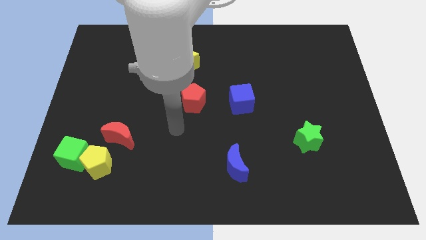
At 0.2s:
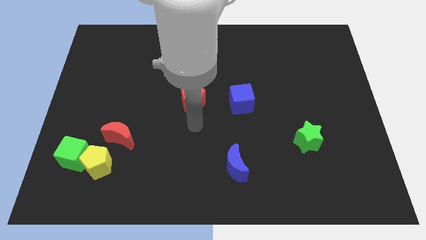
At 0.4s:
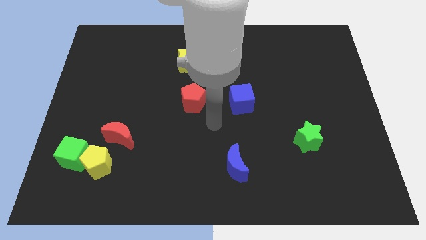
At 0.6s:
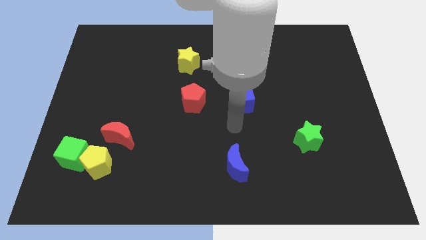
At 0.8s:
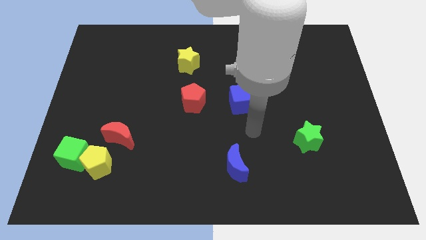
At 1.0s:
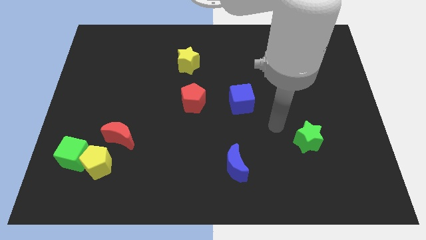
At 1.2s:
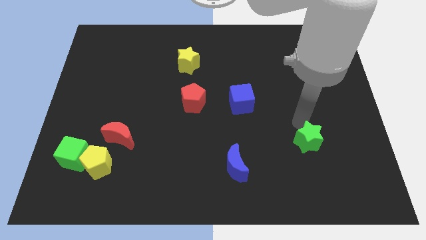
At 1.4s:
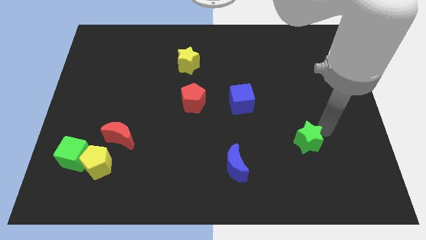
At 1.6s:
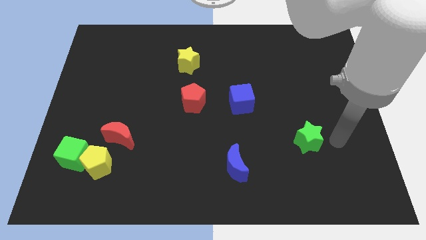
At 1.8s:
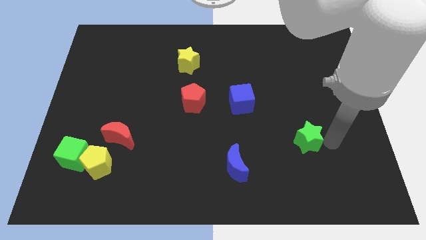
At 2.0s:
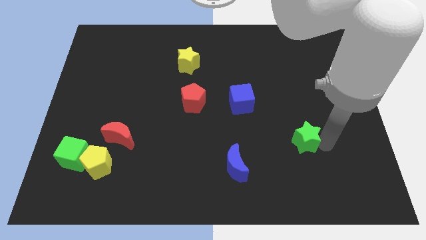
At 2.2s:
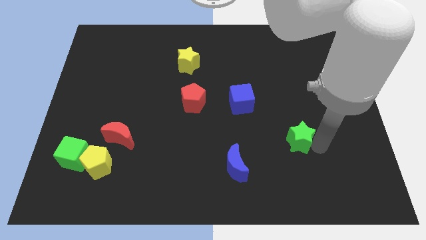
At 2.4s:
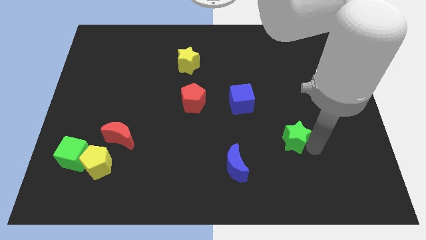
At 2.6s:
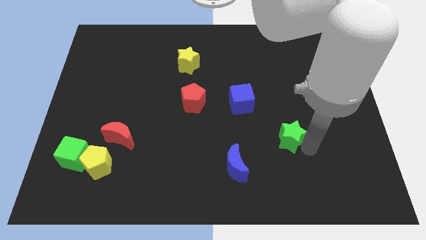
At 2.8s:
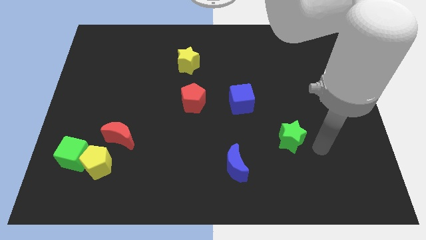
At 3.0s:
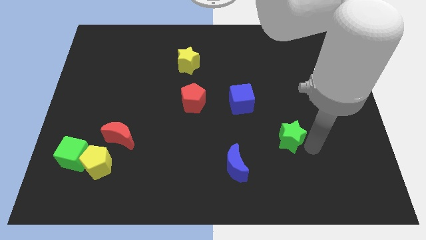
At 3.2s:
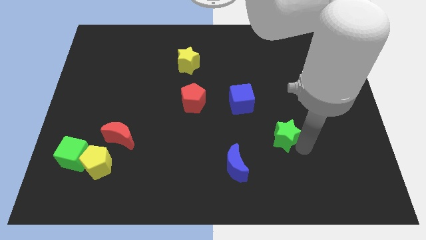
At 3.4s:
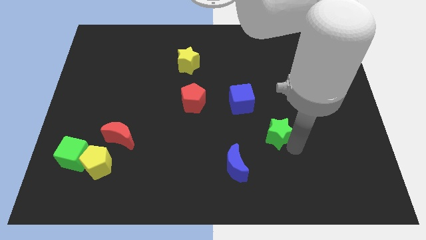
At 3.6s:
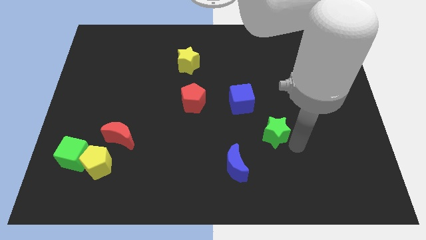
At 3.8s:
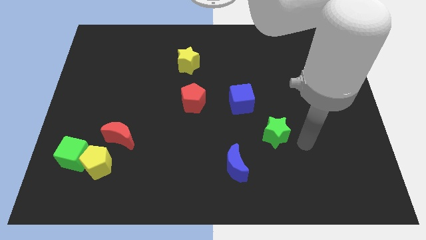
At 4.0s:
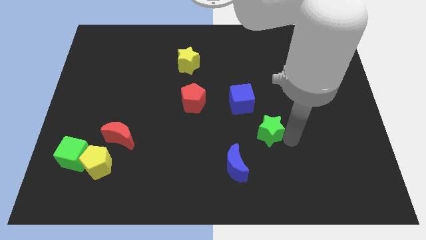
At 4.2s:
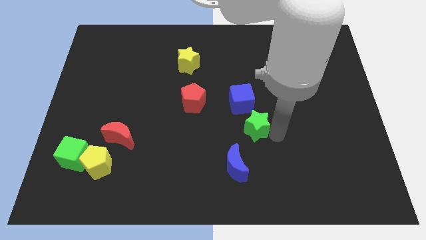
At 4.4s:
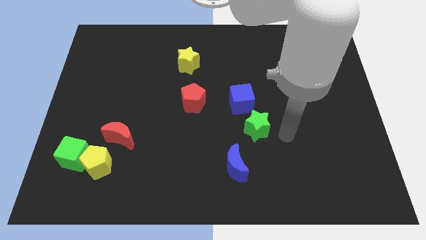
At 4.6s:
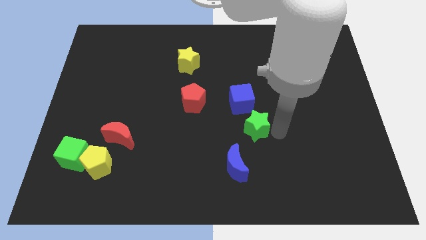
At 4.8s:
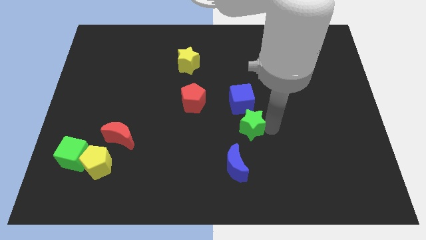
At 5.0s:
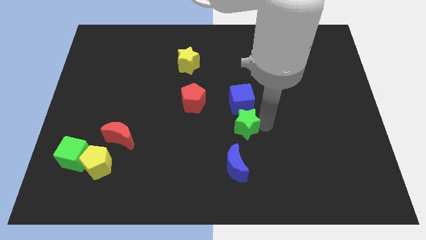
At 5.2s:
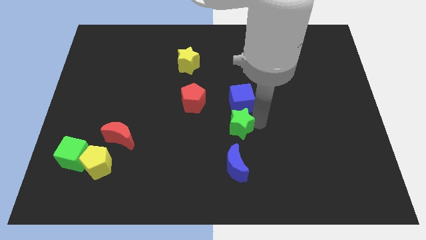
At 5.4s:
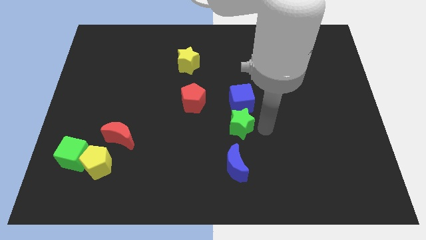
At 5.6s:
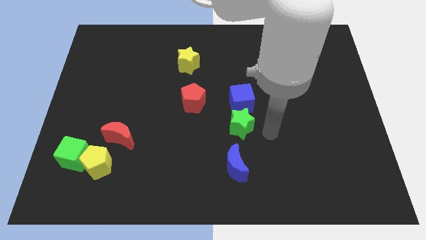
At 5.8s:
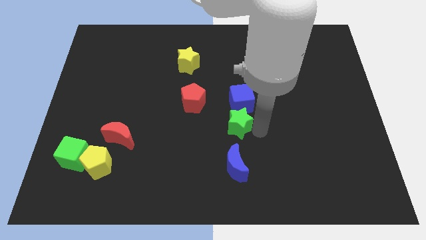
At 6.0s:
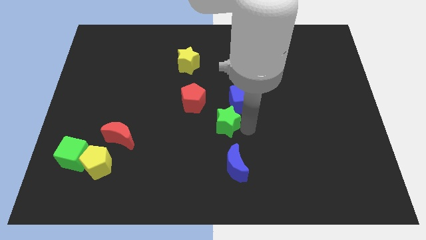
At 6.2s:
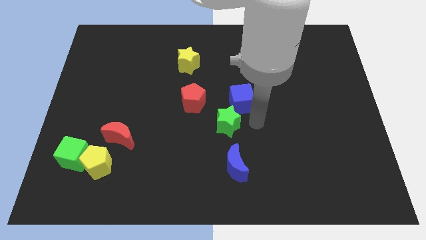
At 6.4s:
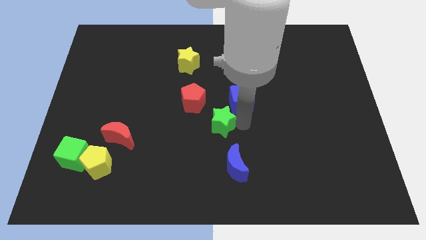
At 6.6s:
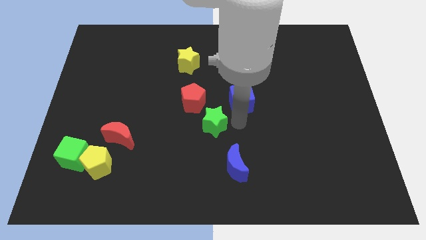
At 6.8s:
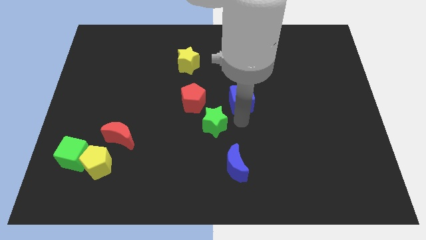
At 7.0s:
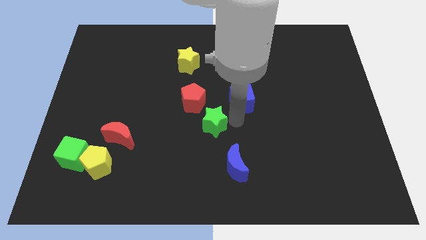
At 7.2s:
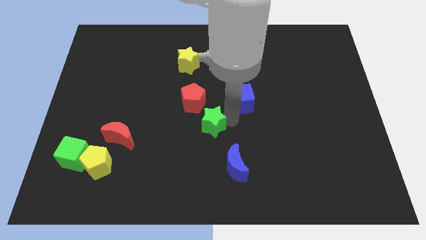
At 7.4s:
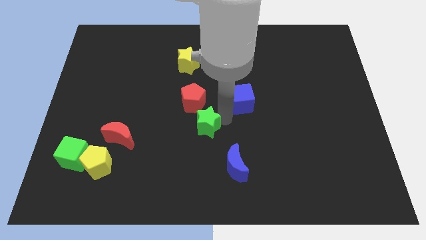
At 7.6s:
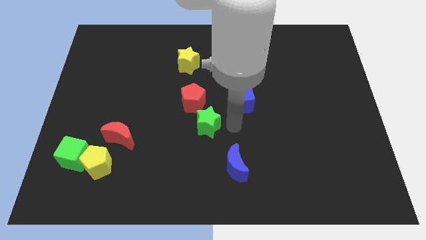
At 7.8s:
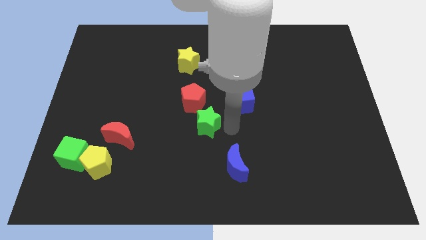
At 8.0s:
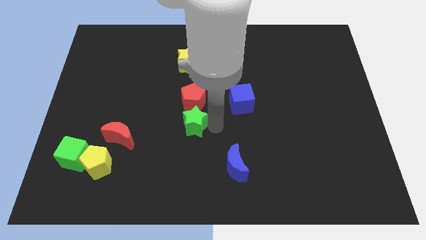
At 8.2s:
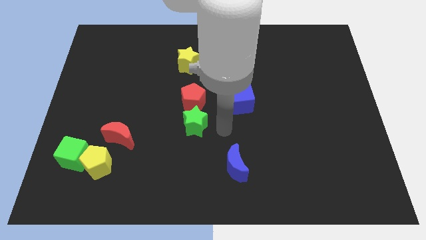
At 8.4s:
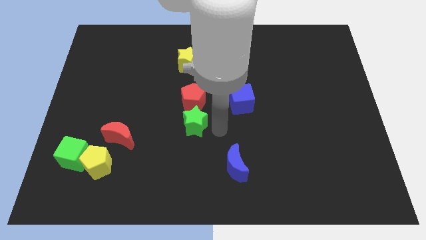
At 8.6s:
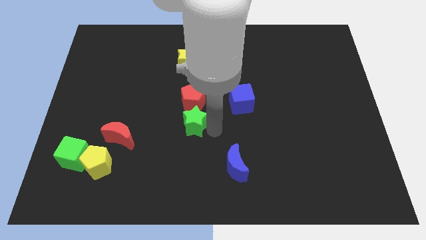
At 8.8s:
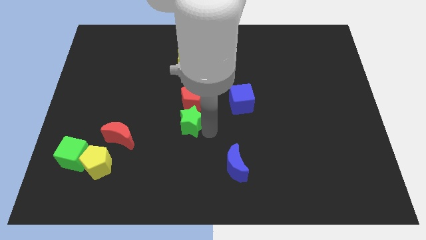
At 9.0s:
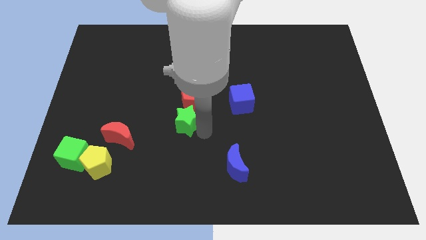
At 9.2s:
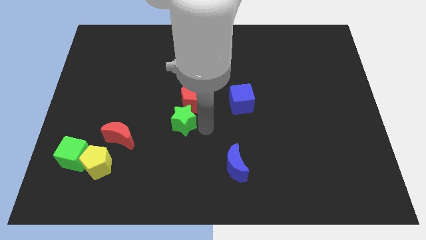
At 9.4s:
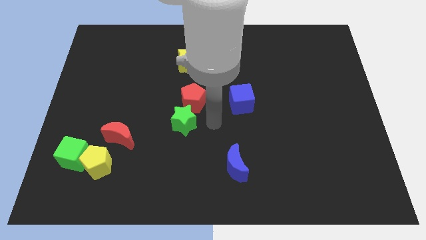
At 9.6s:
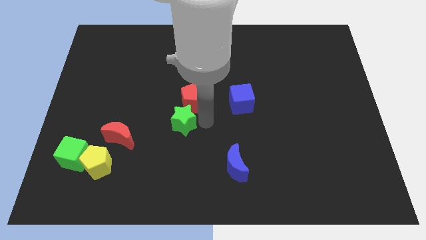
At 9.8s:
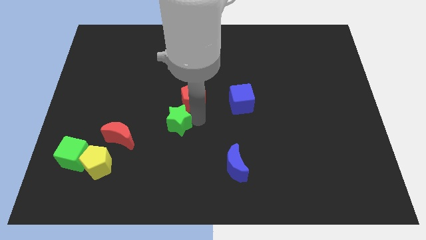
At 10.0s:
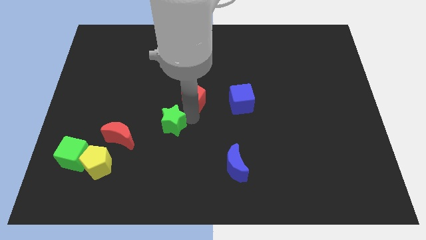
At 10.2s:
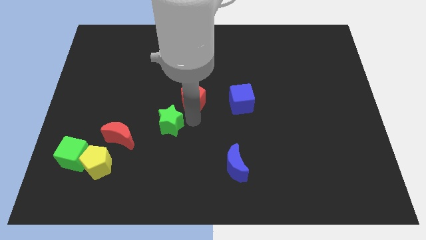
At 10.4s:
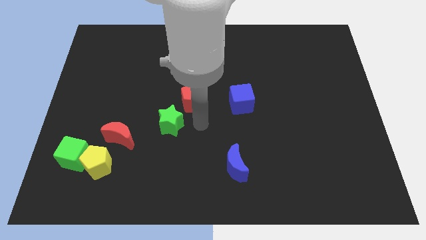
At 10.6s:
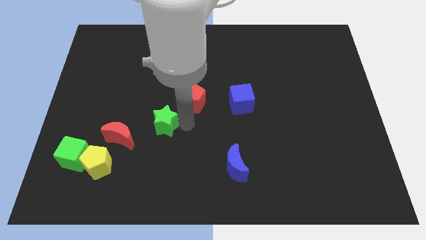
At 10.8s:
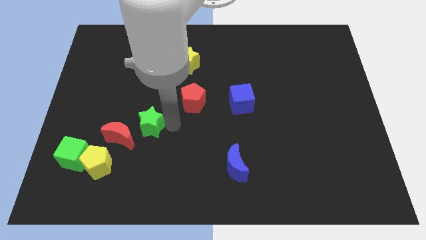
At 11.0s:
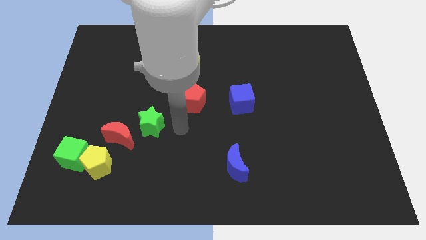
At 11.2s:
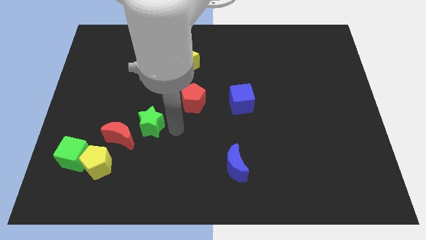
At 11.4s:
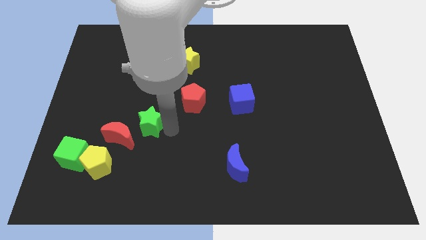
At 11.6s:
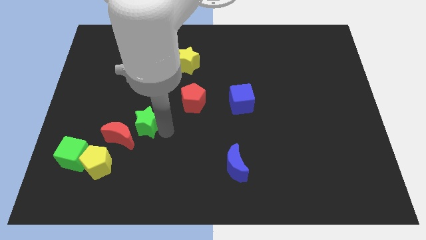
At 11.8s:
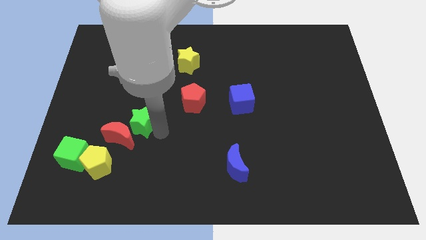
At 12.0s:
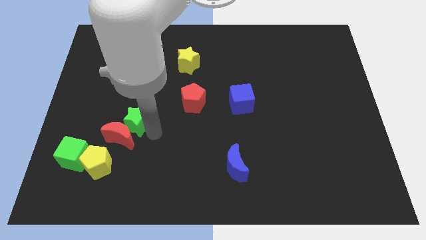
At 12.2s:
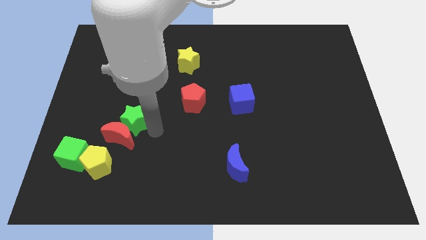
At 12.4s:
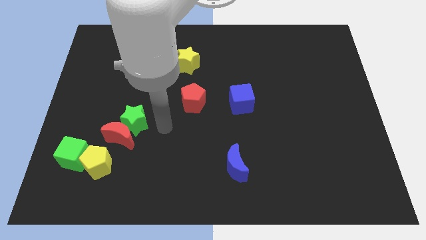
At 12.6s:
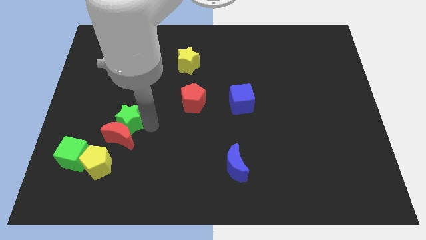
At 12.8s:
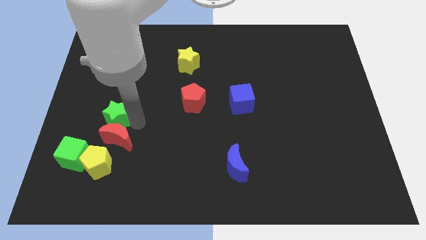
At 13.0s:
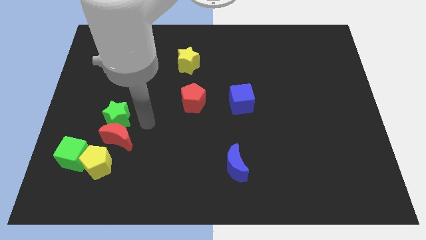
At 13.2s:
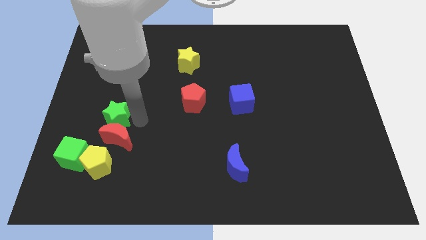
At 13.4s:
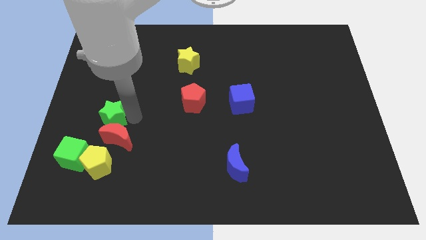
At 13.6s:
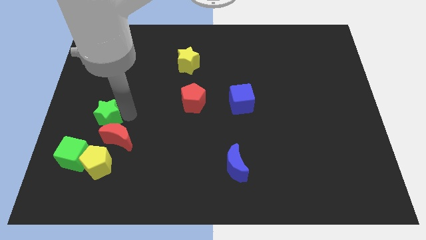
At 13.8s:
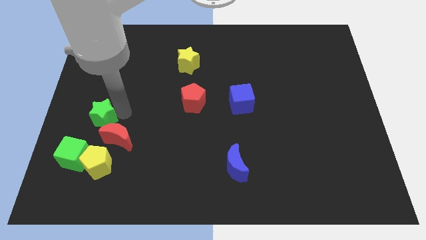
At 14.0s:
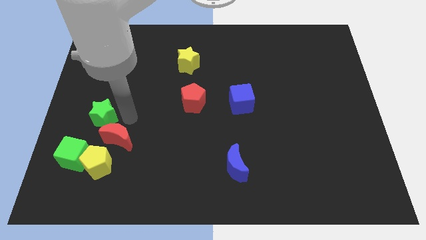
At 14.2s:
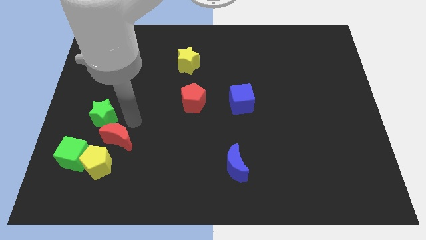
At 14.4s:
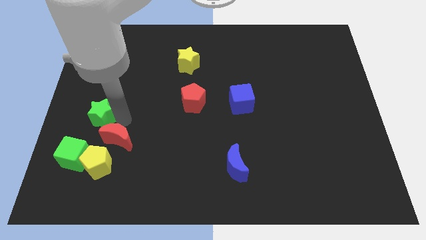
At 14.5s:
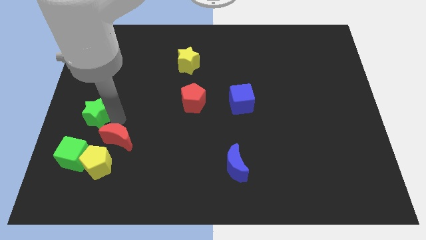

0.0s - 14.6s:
move the green star to the left side
